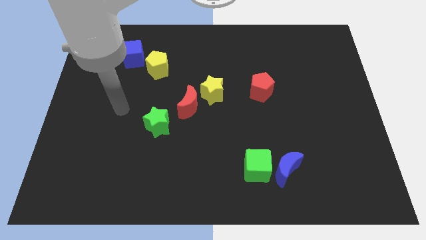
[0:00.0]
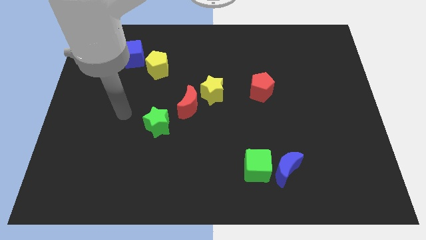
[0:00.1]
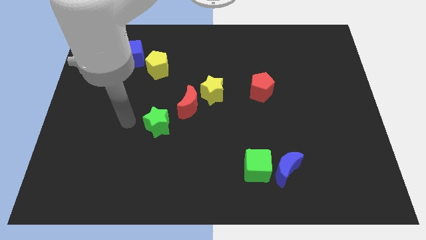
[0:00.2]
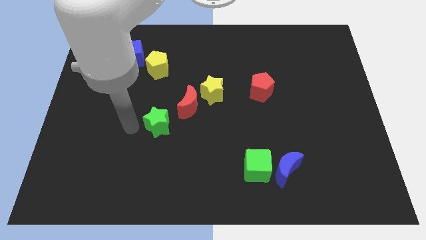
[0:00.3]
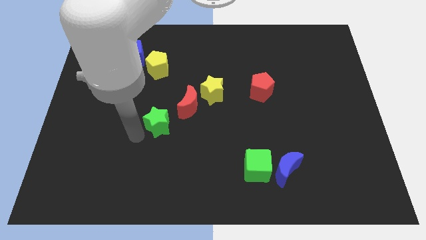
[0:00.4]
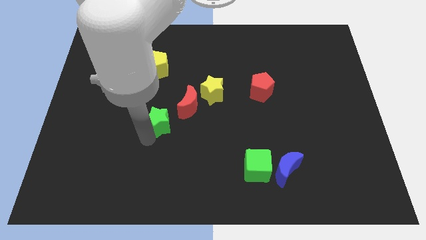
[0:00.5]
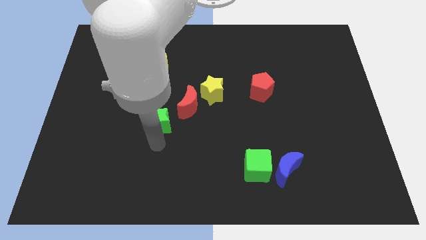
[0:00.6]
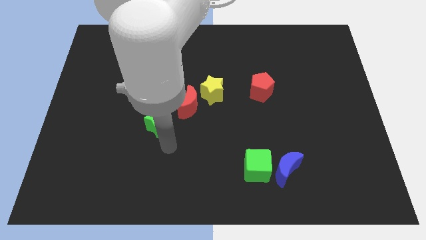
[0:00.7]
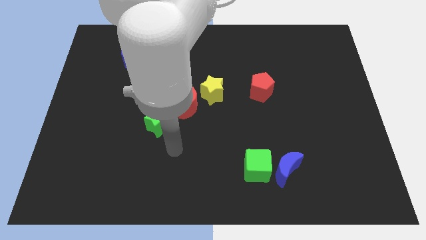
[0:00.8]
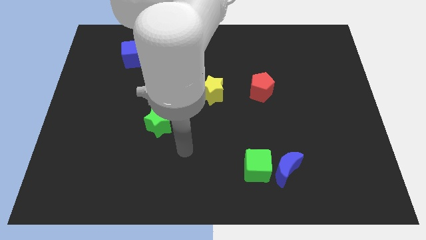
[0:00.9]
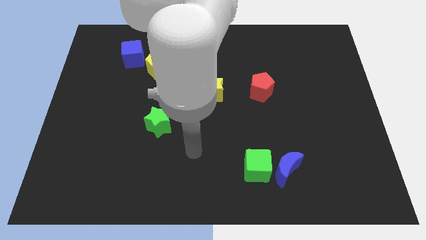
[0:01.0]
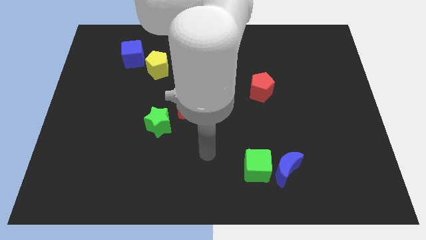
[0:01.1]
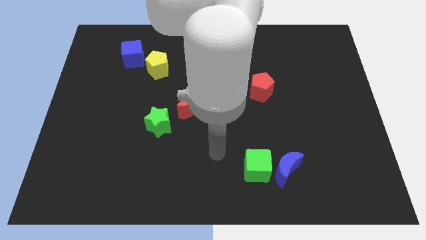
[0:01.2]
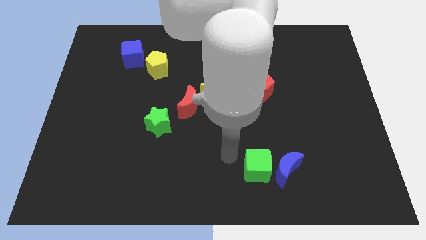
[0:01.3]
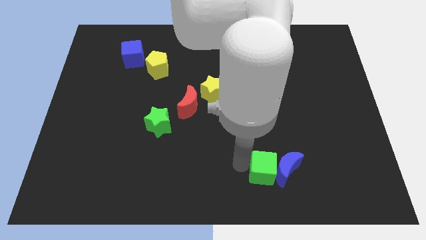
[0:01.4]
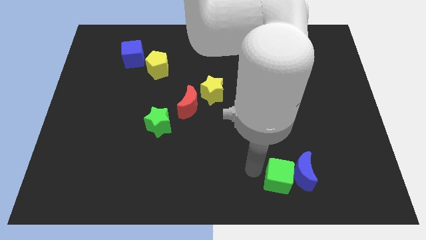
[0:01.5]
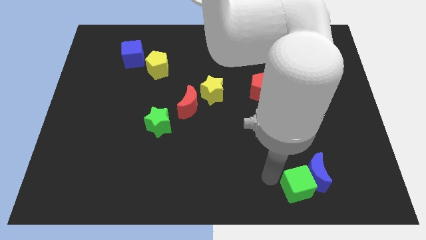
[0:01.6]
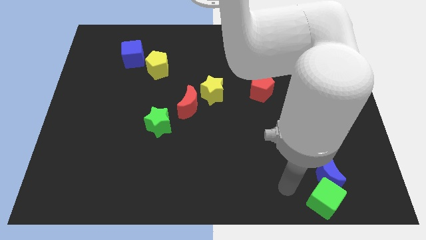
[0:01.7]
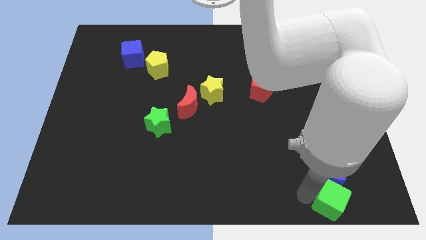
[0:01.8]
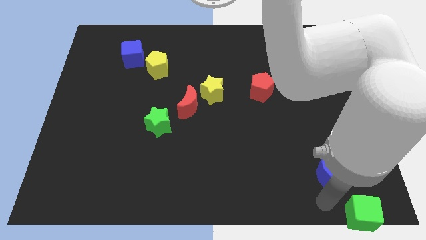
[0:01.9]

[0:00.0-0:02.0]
pull the blue moon apart from the green cube

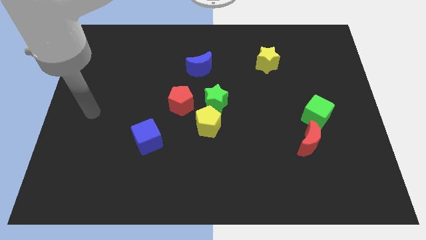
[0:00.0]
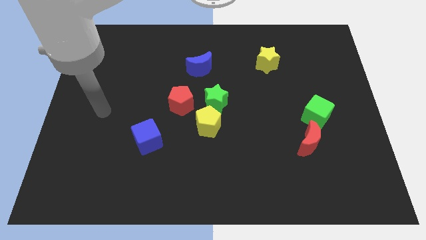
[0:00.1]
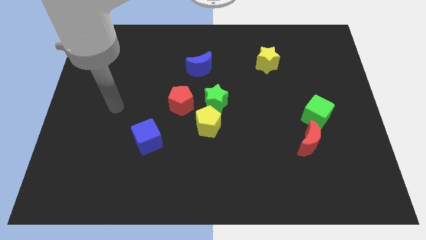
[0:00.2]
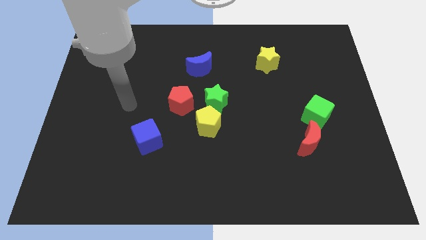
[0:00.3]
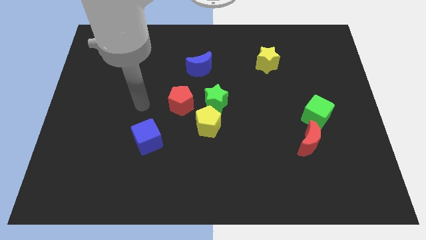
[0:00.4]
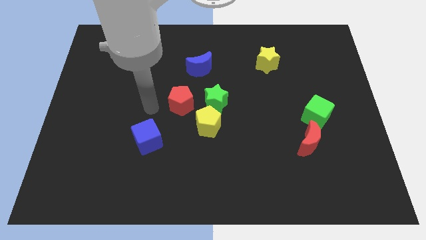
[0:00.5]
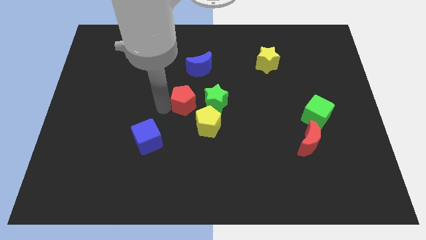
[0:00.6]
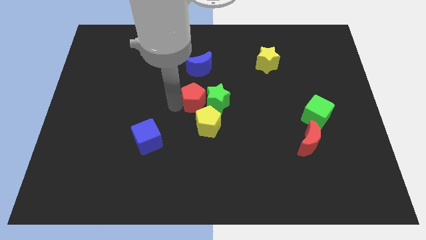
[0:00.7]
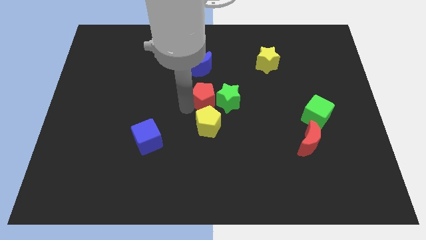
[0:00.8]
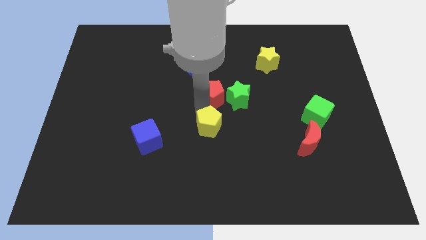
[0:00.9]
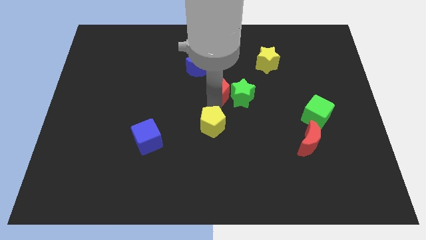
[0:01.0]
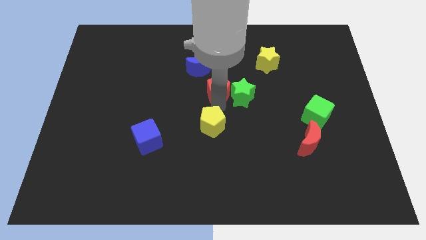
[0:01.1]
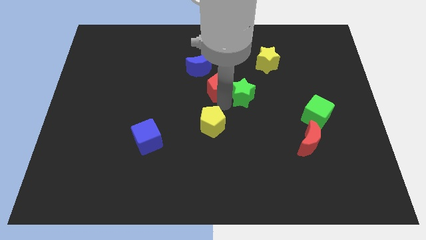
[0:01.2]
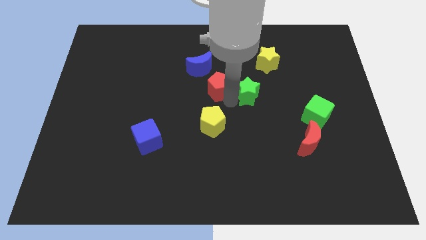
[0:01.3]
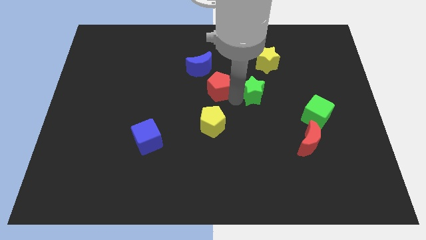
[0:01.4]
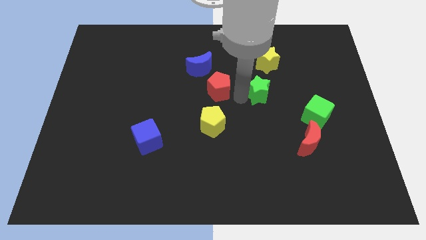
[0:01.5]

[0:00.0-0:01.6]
pull the green star apart from the yellow pentagon and red pentagon

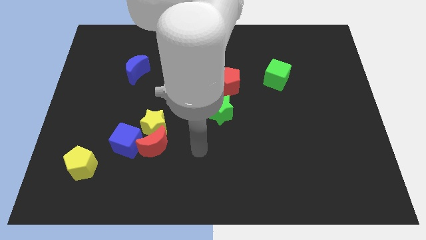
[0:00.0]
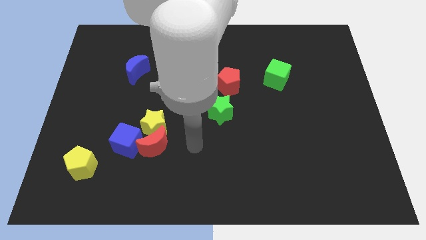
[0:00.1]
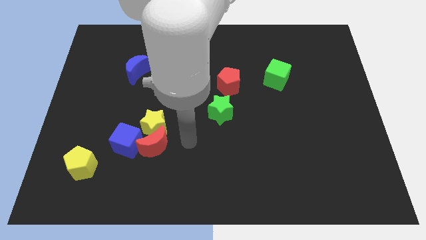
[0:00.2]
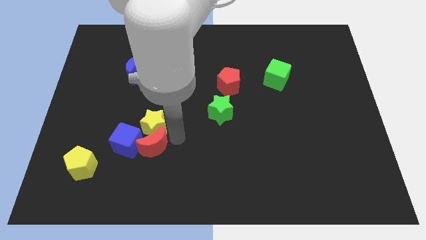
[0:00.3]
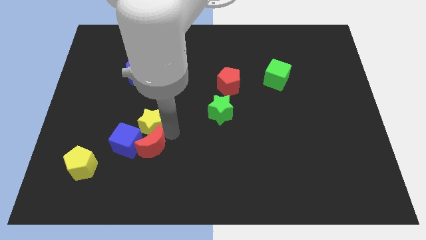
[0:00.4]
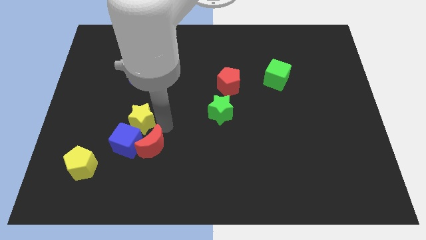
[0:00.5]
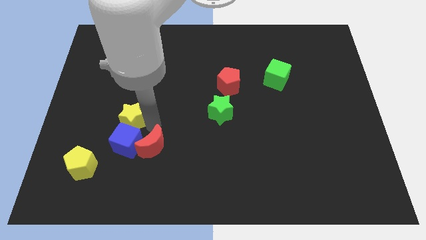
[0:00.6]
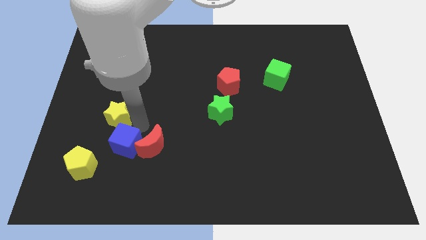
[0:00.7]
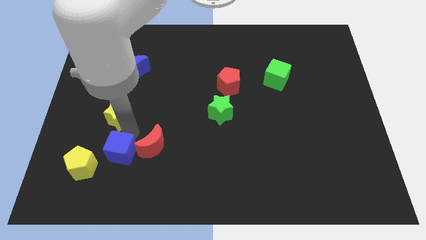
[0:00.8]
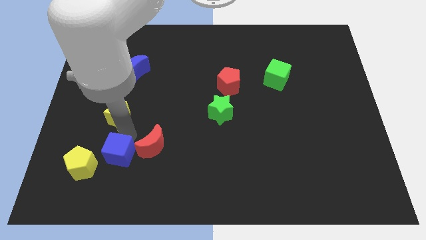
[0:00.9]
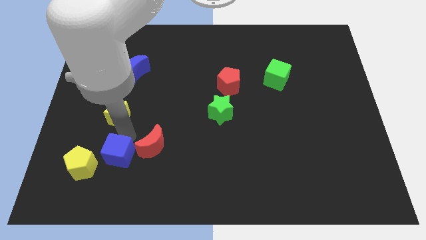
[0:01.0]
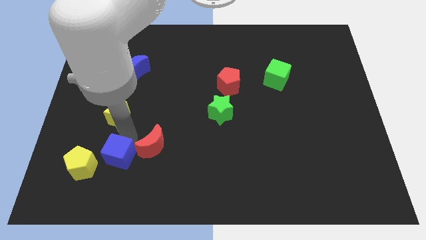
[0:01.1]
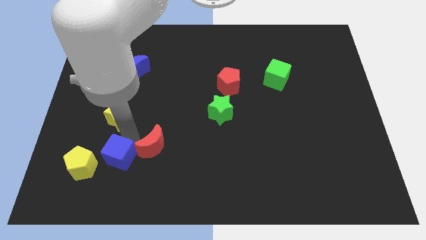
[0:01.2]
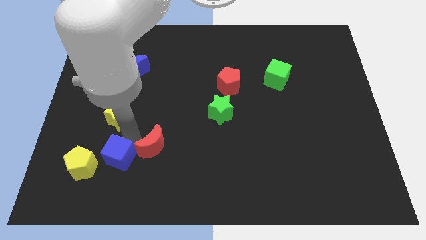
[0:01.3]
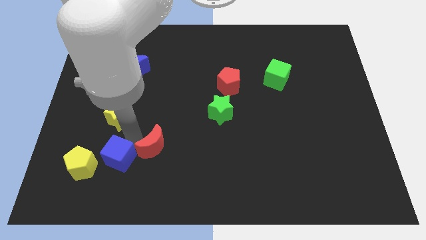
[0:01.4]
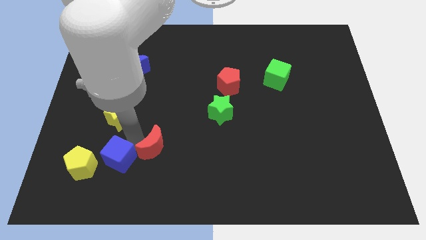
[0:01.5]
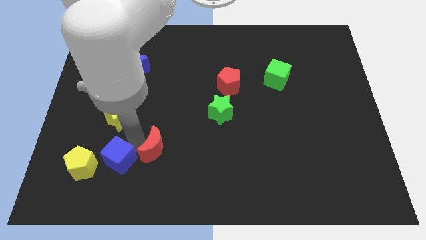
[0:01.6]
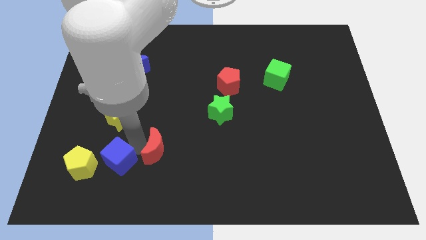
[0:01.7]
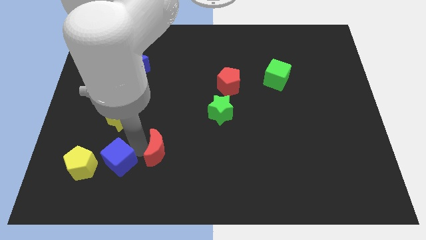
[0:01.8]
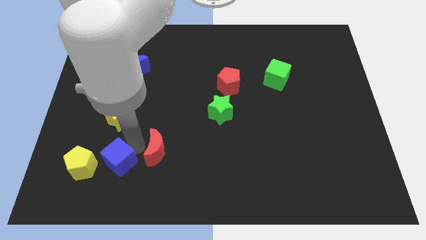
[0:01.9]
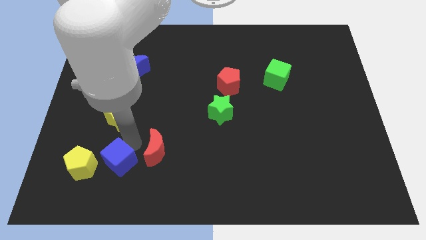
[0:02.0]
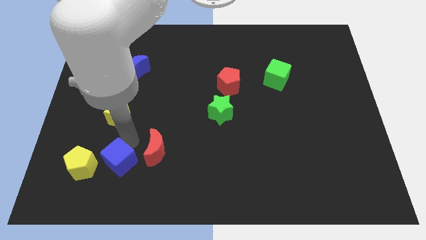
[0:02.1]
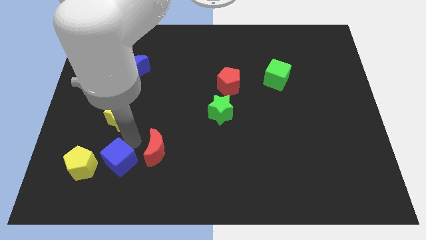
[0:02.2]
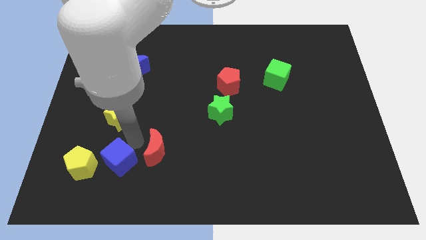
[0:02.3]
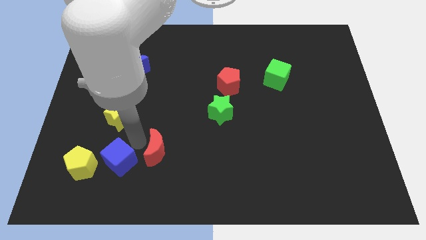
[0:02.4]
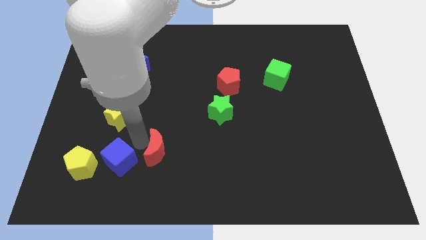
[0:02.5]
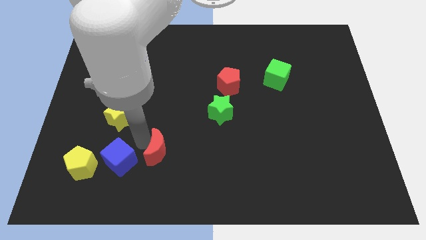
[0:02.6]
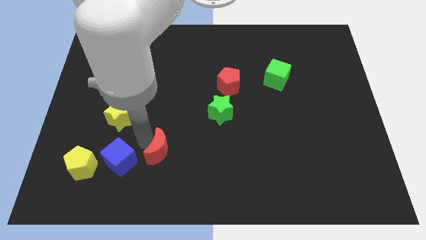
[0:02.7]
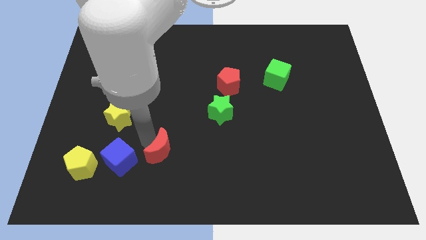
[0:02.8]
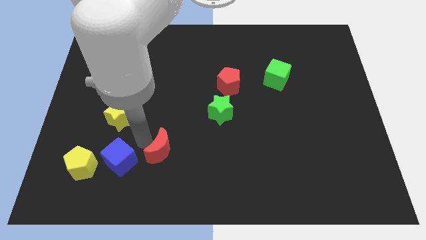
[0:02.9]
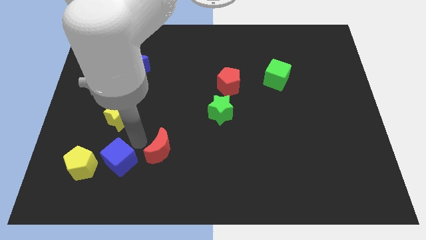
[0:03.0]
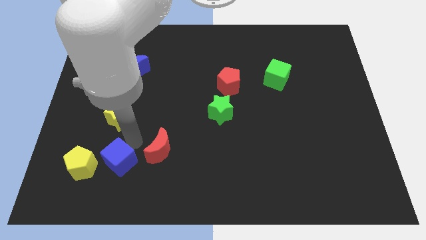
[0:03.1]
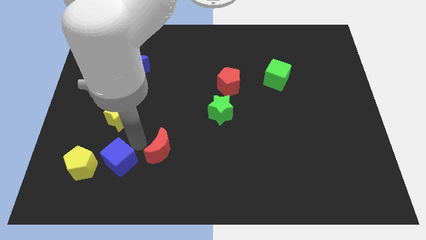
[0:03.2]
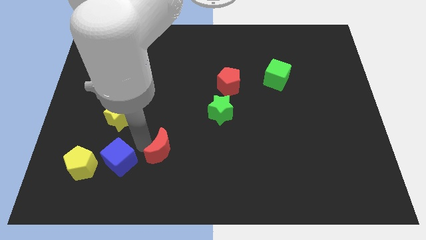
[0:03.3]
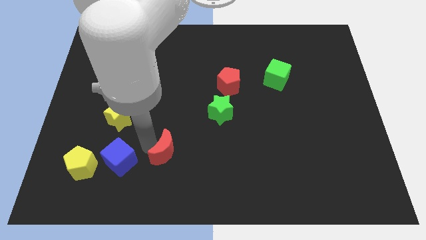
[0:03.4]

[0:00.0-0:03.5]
pull the red moon apart from the yellow star and blue cube

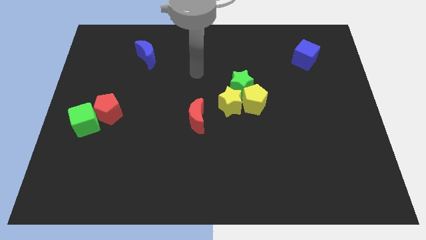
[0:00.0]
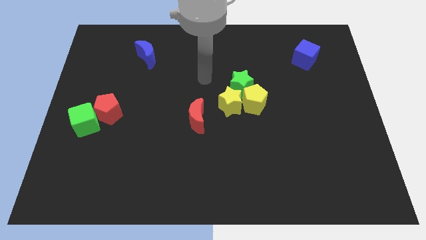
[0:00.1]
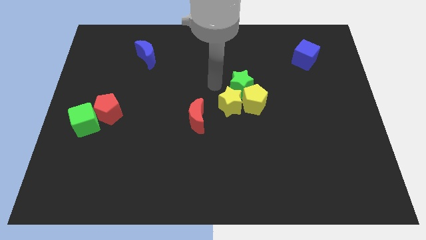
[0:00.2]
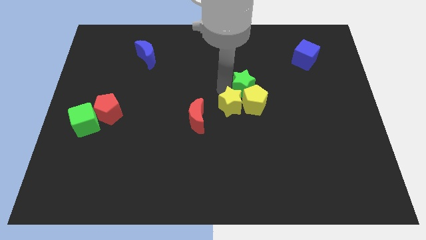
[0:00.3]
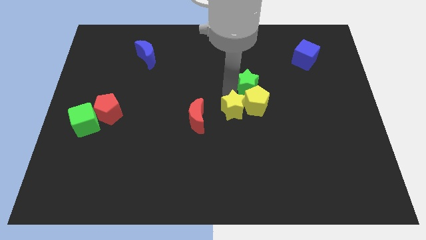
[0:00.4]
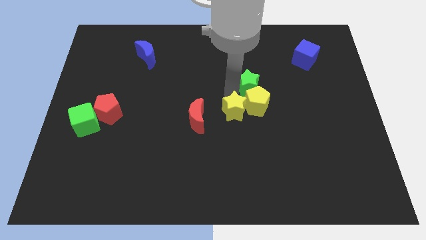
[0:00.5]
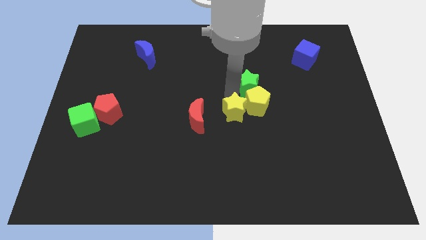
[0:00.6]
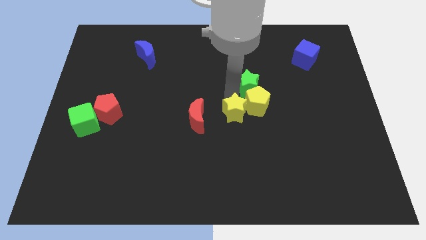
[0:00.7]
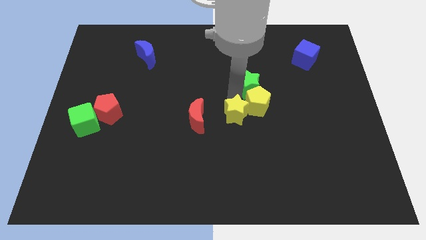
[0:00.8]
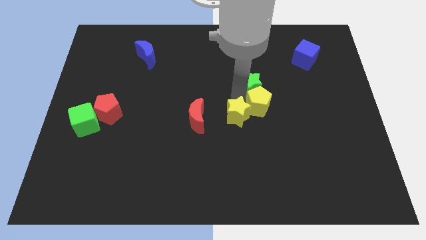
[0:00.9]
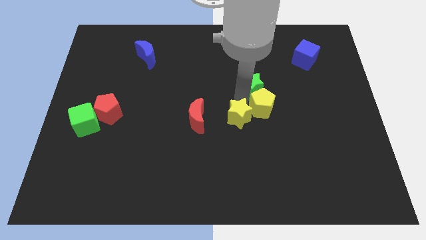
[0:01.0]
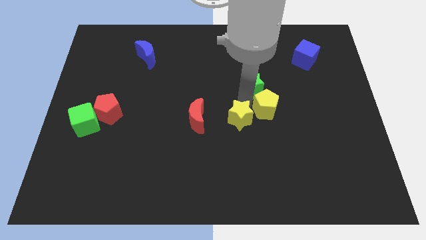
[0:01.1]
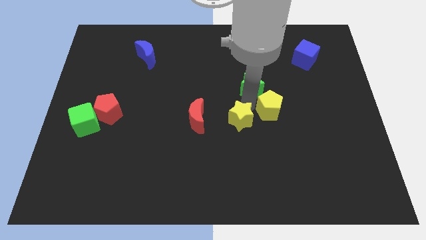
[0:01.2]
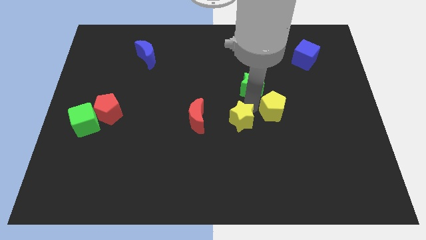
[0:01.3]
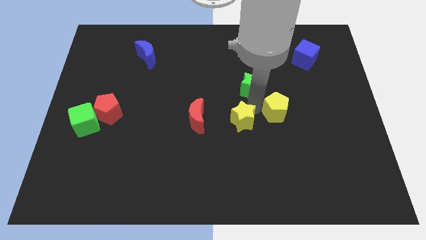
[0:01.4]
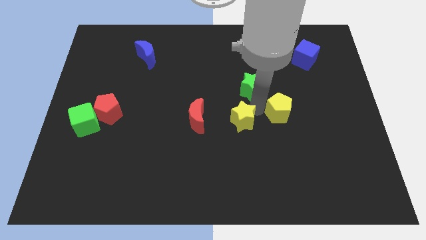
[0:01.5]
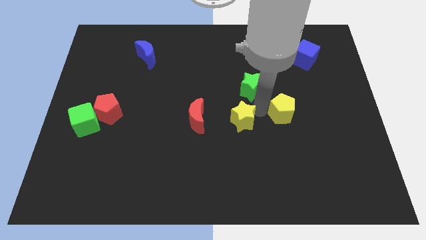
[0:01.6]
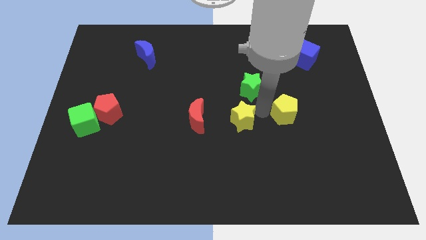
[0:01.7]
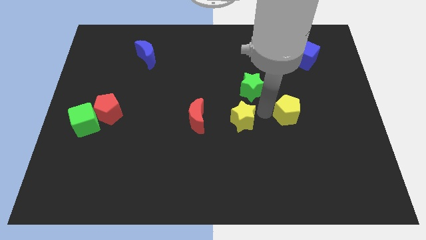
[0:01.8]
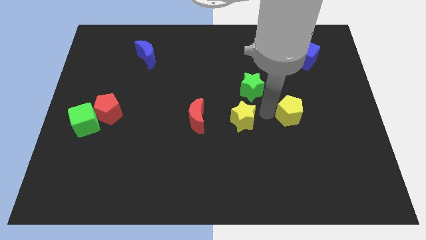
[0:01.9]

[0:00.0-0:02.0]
separate the yellow pentagon from the yellow star and green star

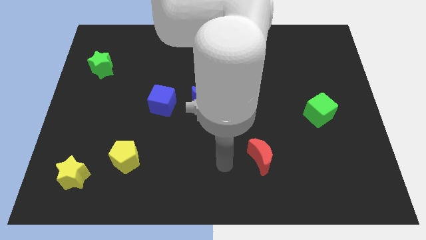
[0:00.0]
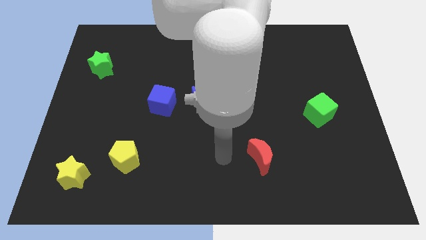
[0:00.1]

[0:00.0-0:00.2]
pull the blue moon apart from the blue cube
